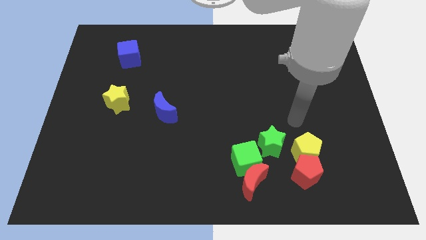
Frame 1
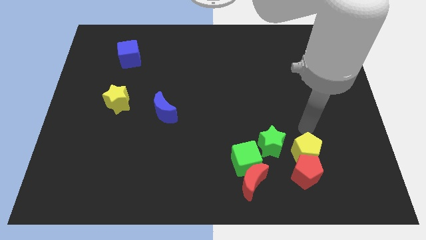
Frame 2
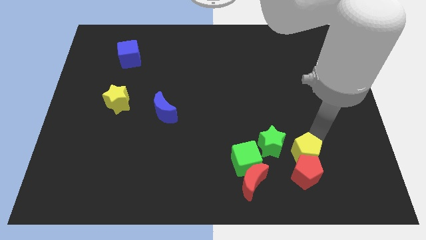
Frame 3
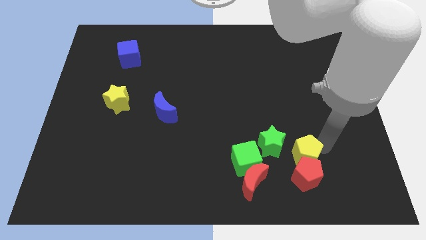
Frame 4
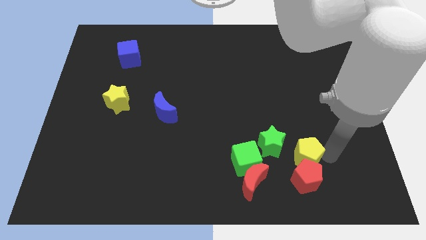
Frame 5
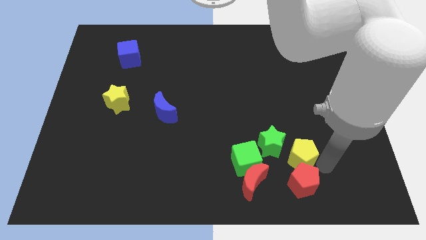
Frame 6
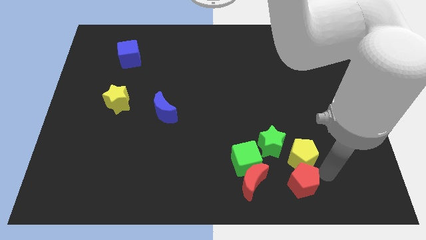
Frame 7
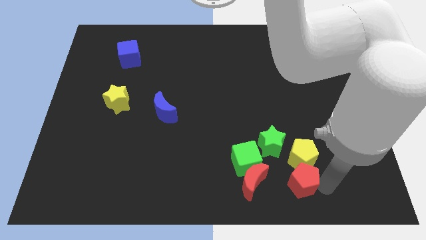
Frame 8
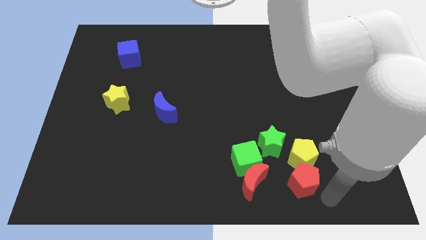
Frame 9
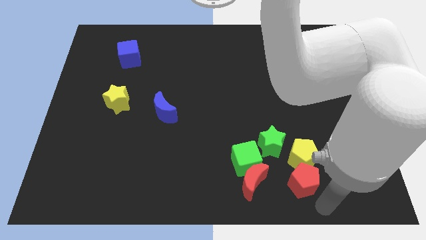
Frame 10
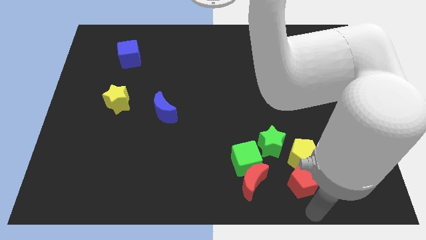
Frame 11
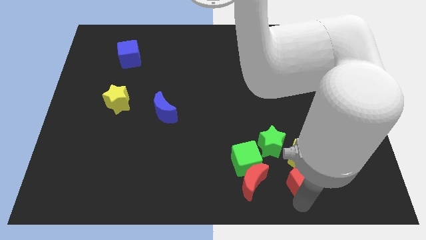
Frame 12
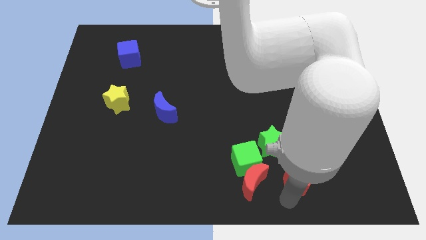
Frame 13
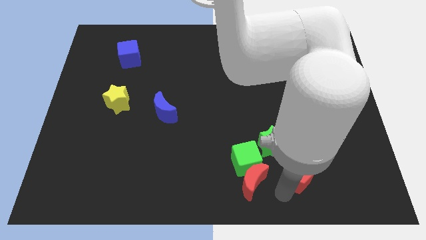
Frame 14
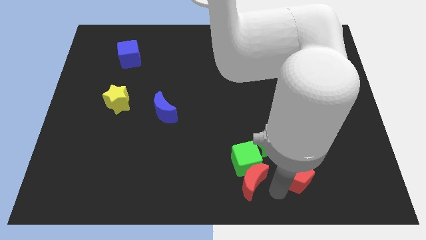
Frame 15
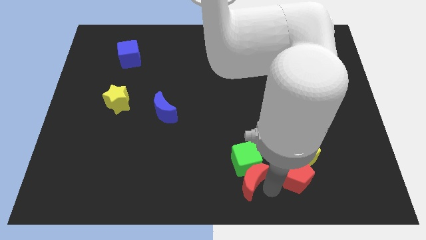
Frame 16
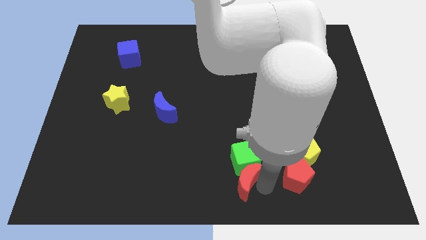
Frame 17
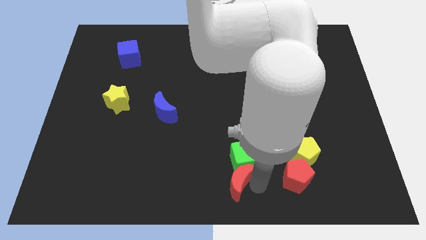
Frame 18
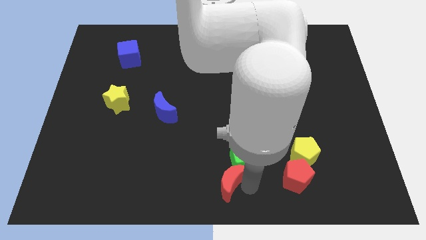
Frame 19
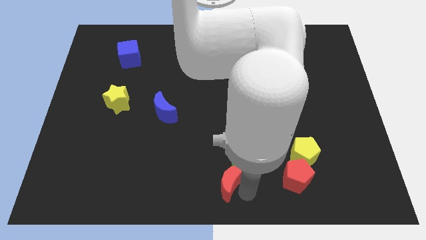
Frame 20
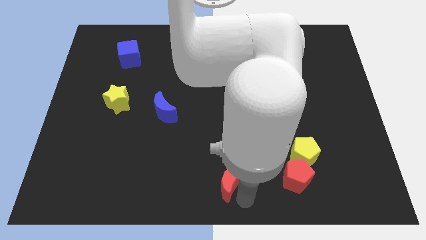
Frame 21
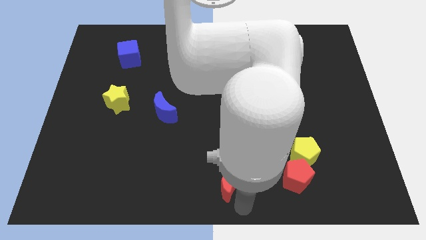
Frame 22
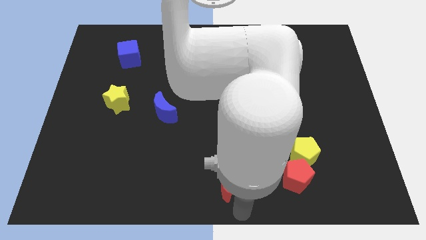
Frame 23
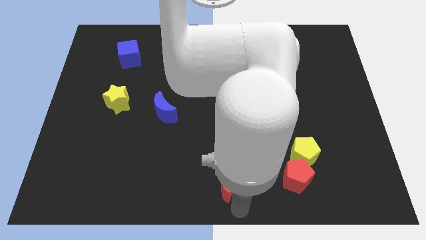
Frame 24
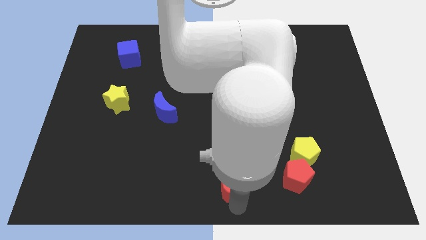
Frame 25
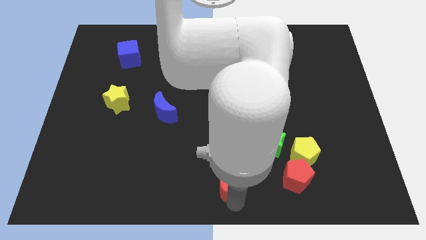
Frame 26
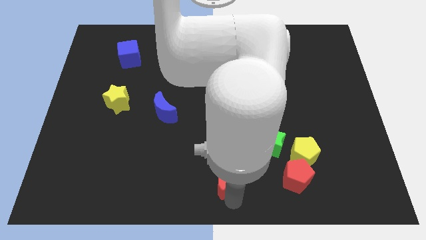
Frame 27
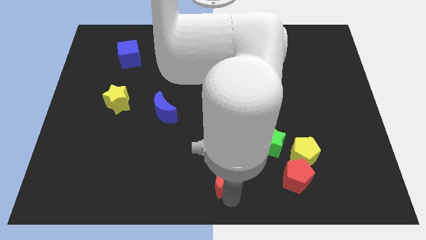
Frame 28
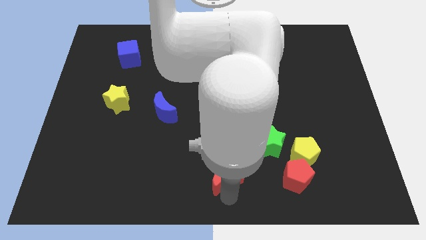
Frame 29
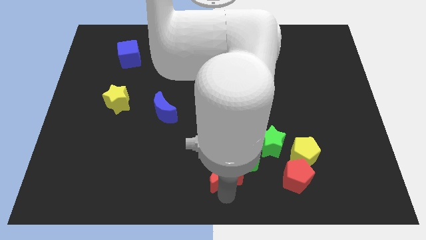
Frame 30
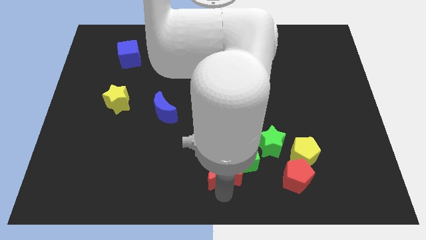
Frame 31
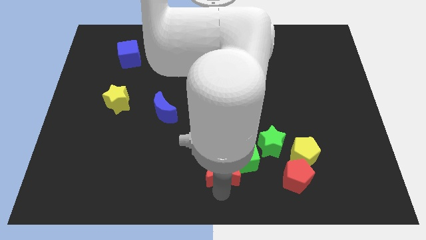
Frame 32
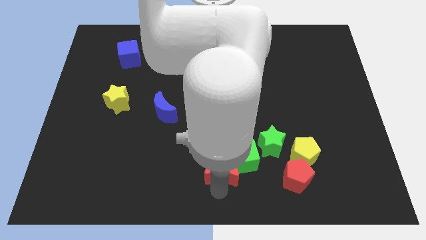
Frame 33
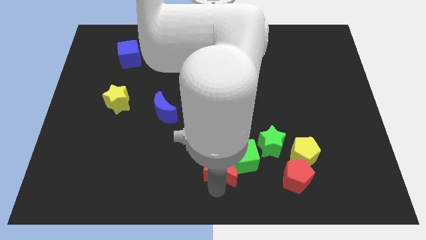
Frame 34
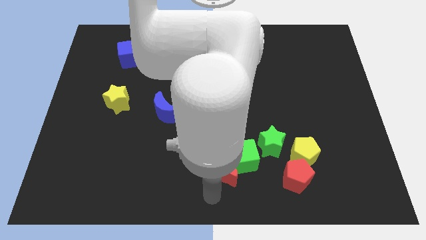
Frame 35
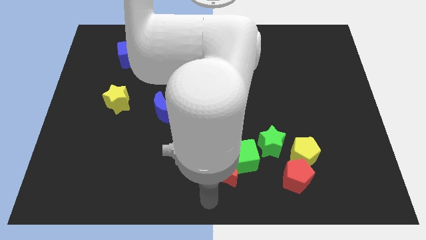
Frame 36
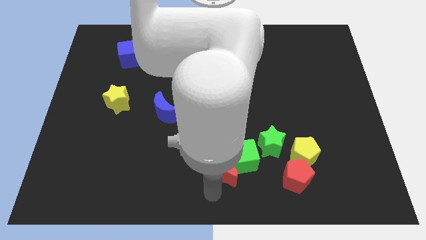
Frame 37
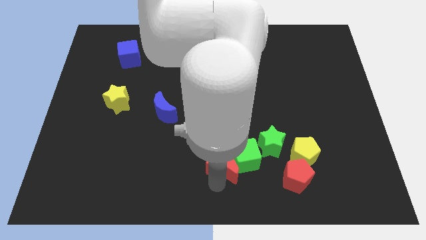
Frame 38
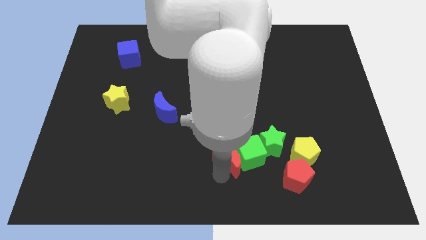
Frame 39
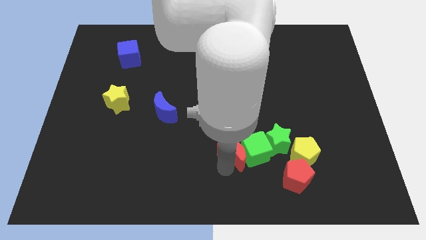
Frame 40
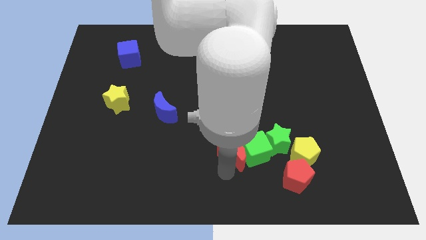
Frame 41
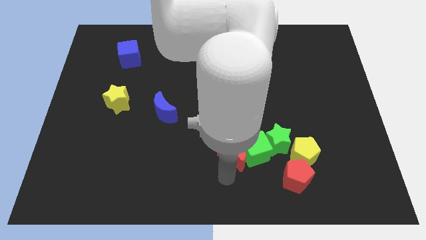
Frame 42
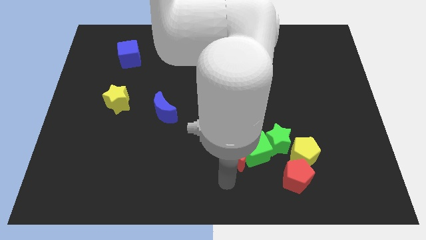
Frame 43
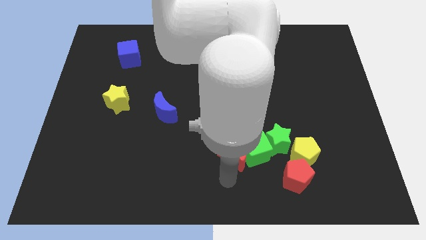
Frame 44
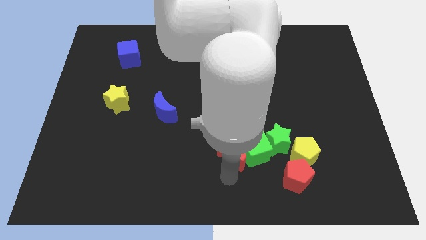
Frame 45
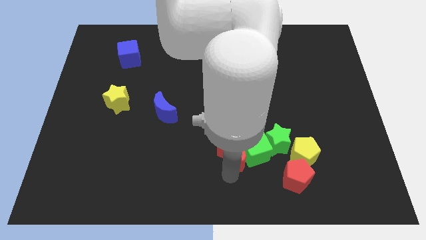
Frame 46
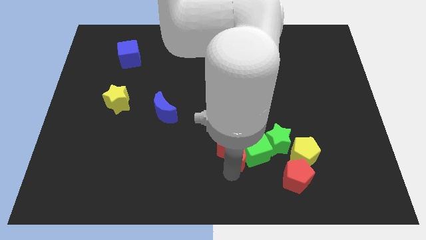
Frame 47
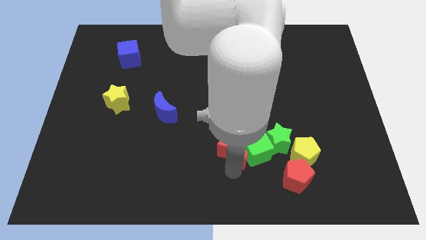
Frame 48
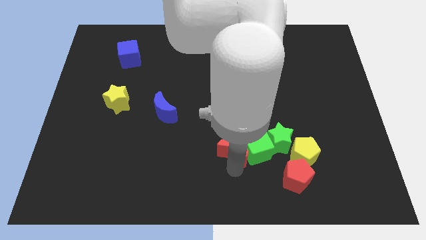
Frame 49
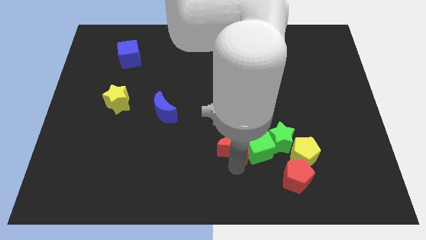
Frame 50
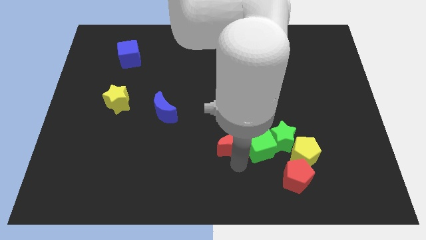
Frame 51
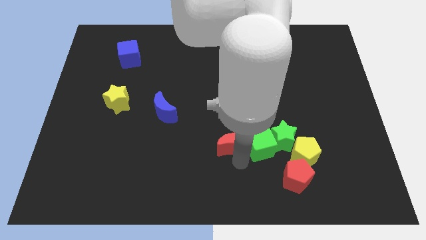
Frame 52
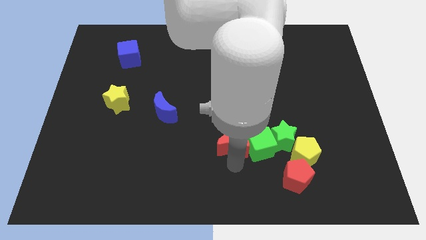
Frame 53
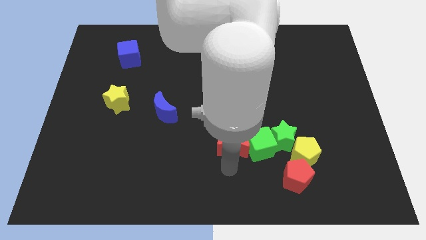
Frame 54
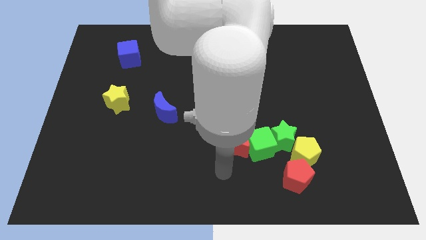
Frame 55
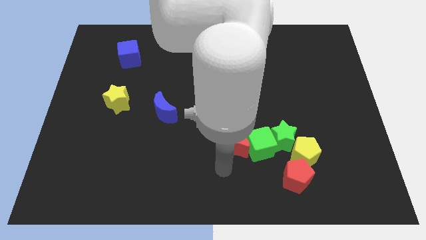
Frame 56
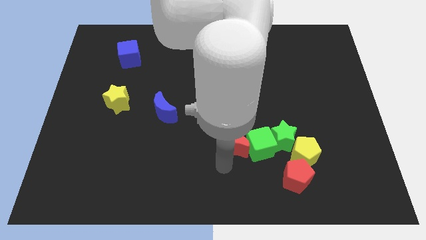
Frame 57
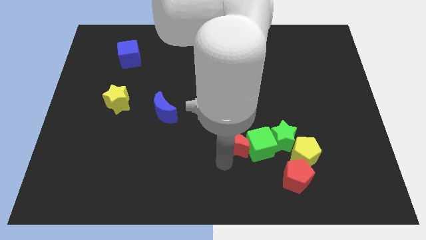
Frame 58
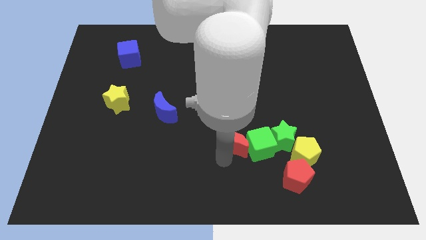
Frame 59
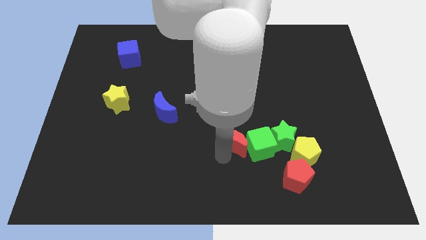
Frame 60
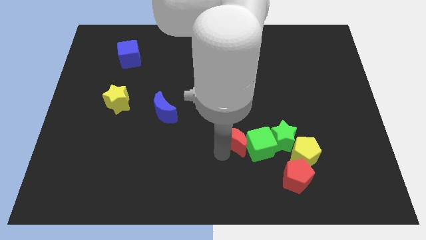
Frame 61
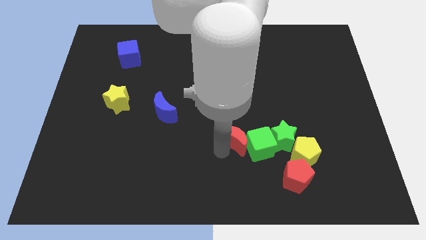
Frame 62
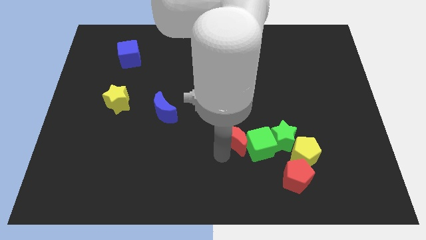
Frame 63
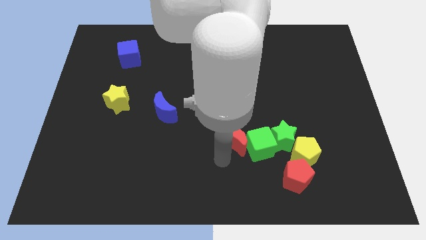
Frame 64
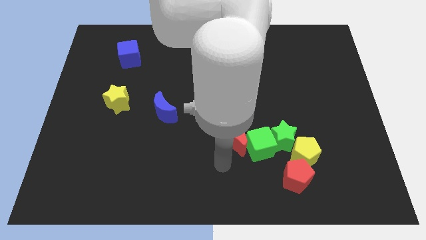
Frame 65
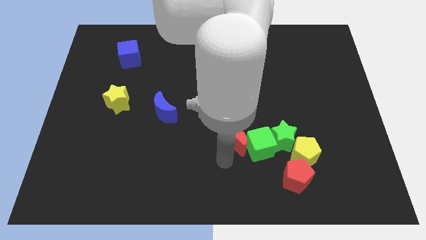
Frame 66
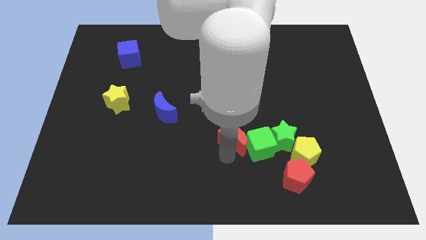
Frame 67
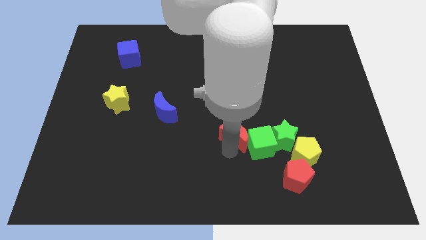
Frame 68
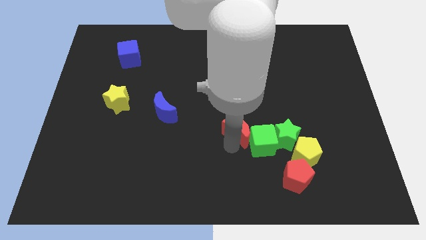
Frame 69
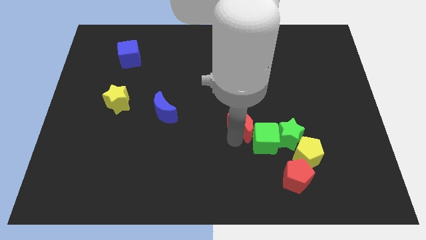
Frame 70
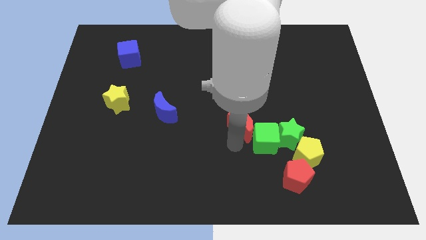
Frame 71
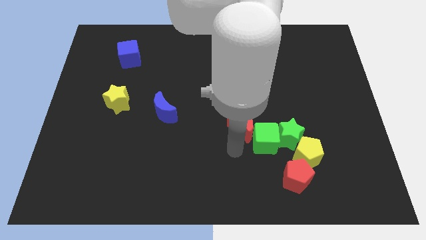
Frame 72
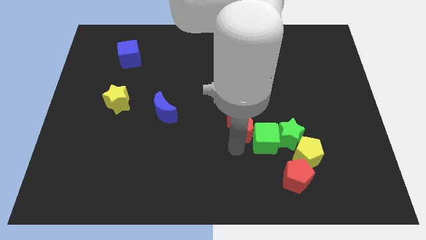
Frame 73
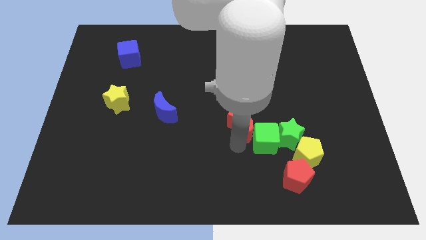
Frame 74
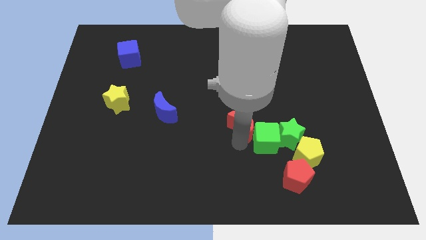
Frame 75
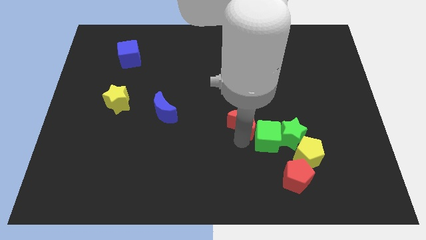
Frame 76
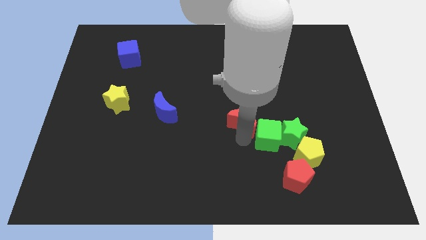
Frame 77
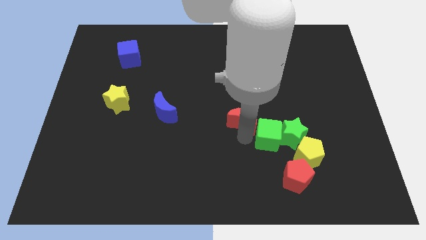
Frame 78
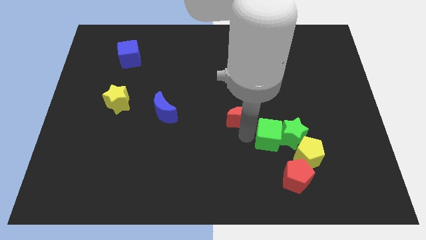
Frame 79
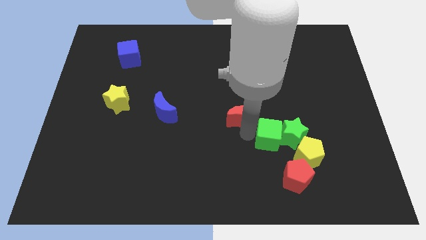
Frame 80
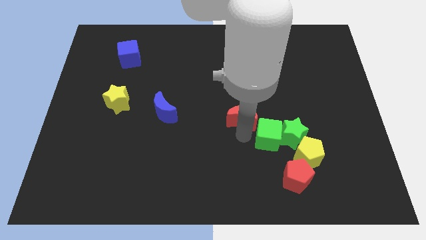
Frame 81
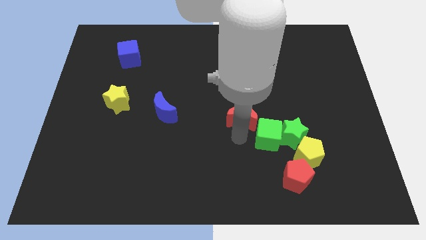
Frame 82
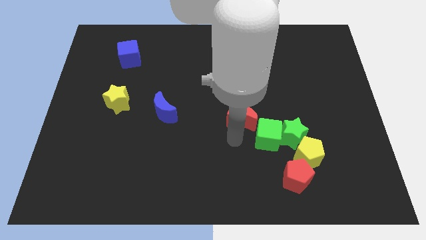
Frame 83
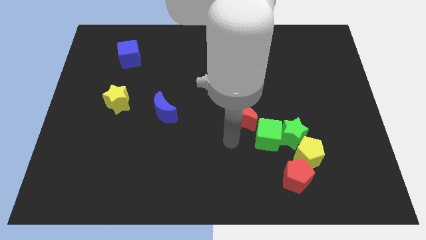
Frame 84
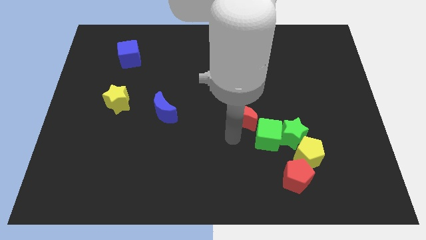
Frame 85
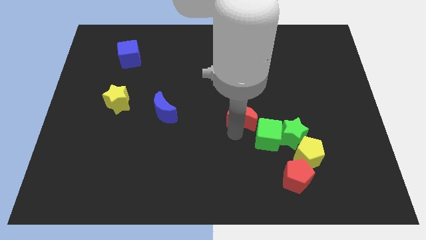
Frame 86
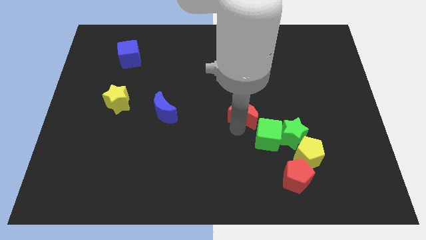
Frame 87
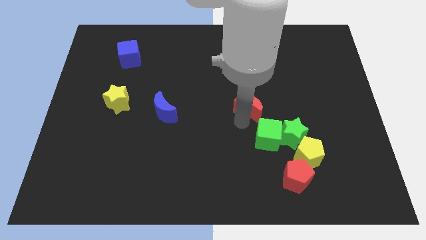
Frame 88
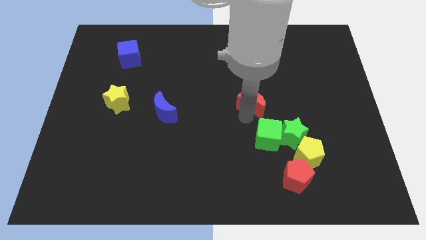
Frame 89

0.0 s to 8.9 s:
push the red moon upwards
